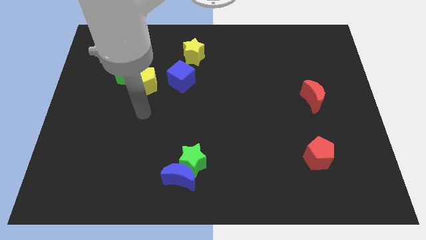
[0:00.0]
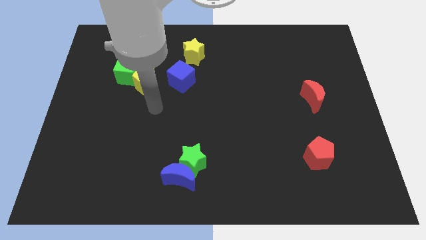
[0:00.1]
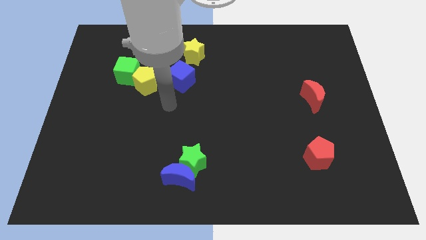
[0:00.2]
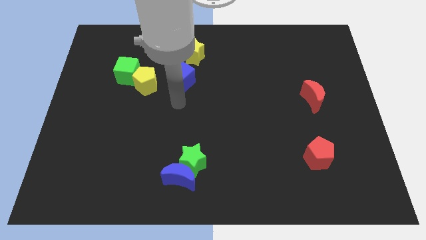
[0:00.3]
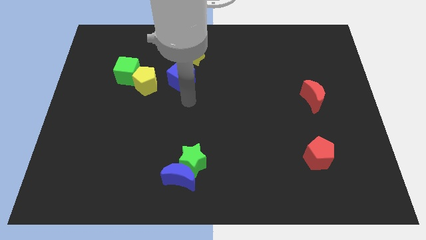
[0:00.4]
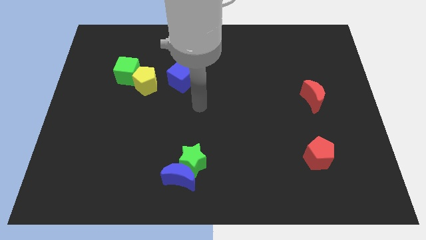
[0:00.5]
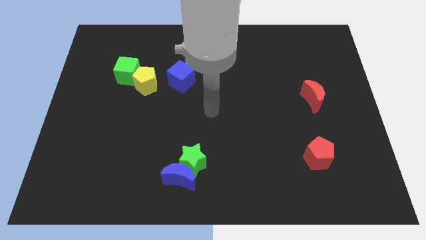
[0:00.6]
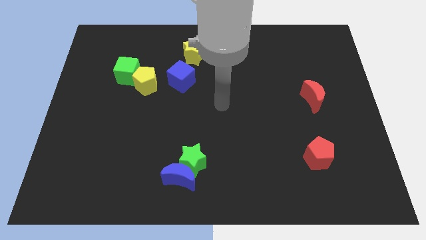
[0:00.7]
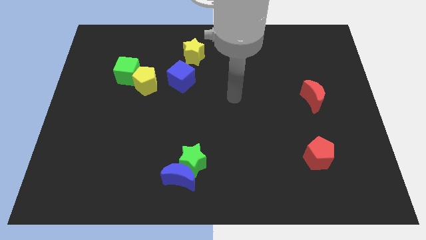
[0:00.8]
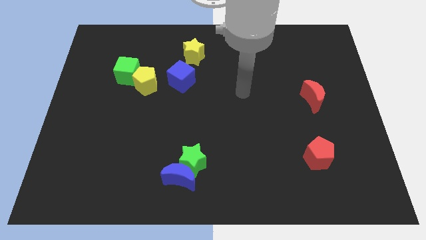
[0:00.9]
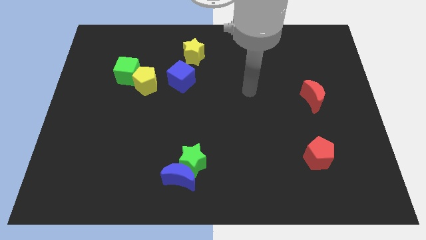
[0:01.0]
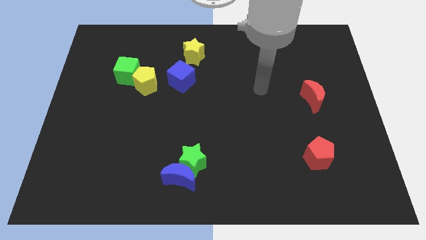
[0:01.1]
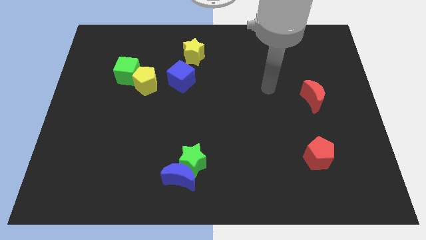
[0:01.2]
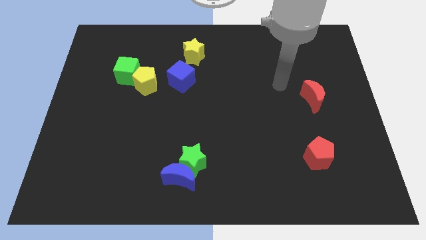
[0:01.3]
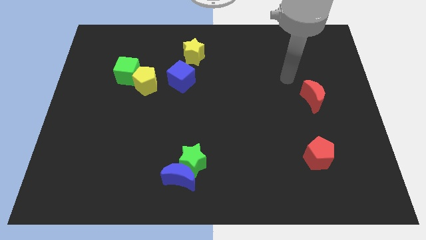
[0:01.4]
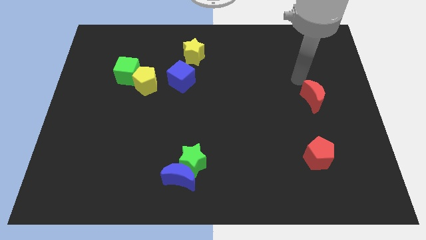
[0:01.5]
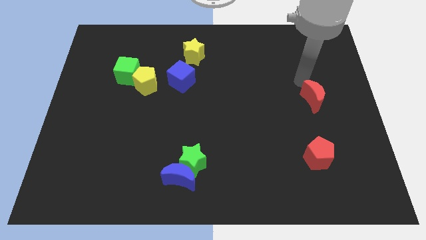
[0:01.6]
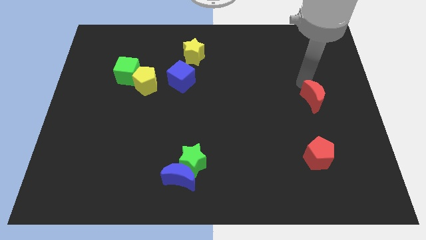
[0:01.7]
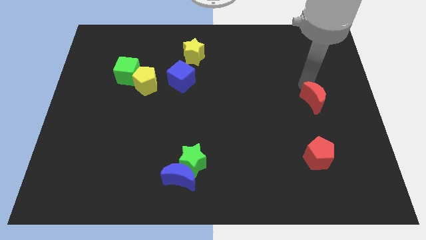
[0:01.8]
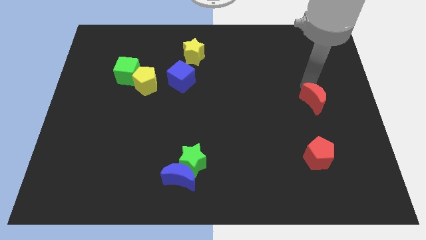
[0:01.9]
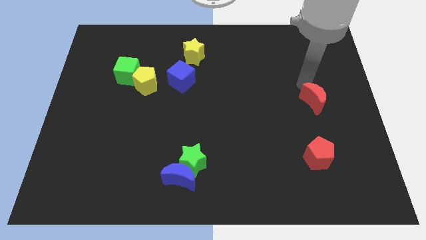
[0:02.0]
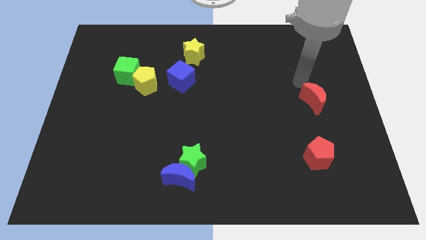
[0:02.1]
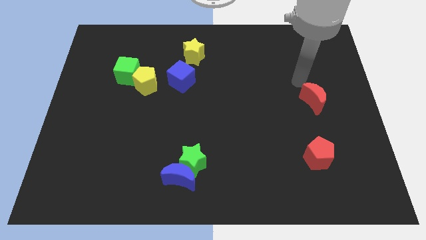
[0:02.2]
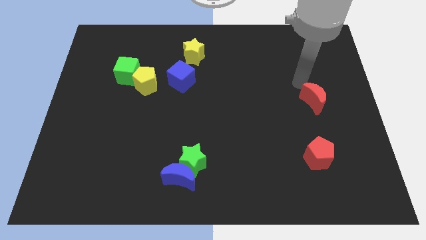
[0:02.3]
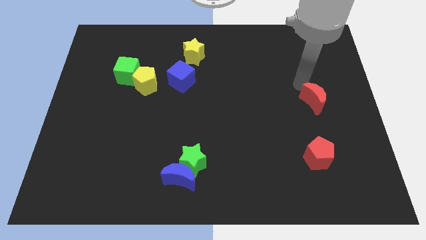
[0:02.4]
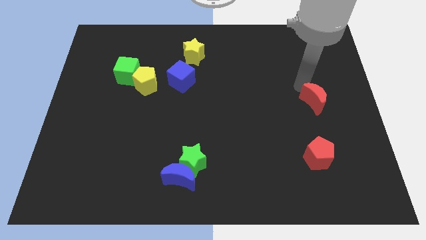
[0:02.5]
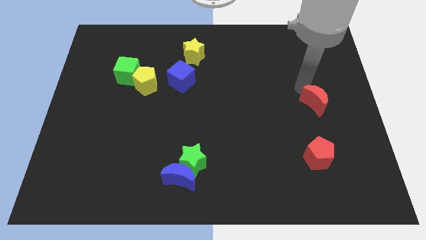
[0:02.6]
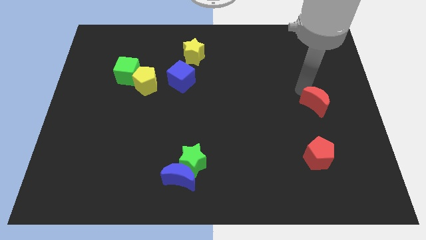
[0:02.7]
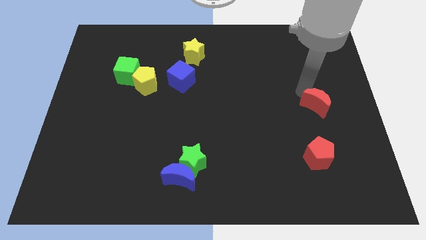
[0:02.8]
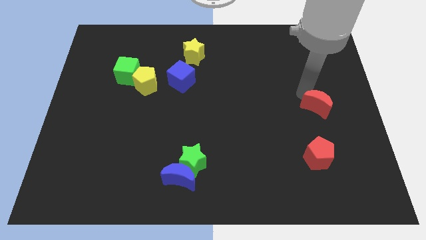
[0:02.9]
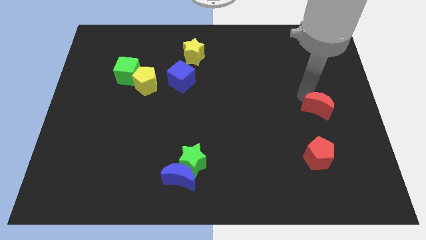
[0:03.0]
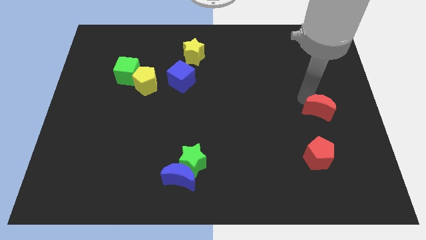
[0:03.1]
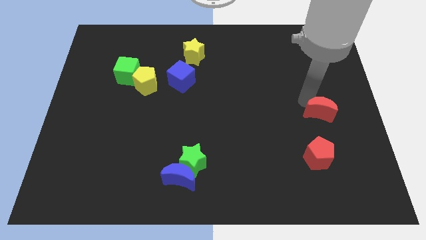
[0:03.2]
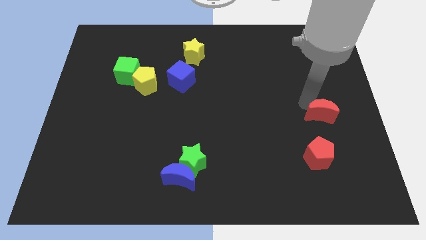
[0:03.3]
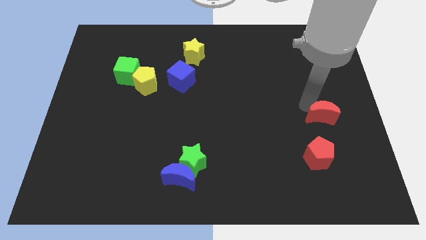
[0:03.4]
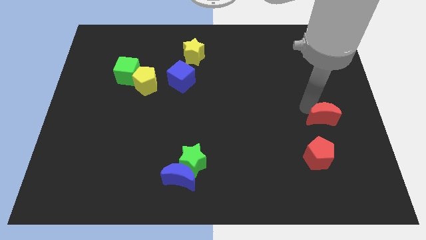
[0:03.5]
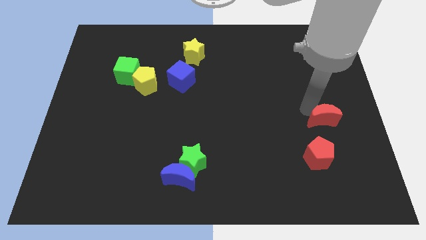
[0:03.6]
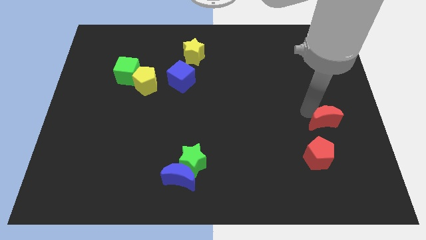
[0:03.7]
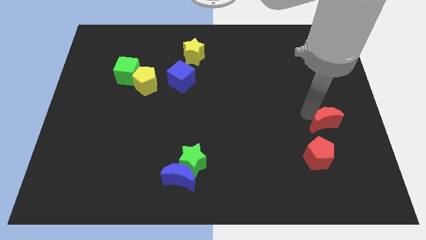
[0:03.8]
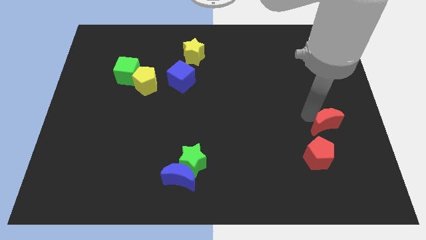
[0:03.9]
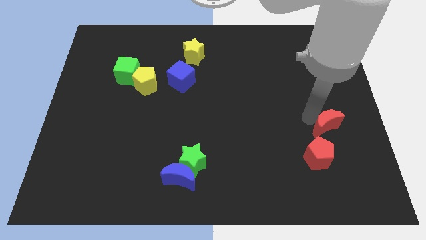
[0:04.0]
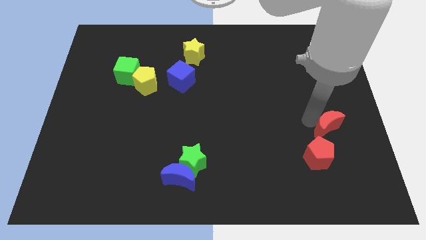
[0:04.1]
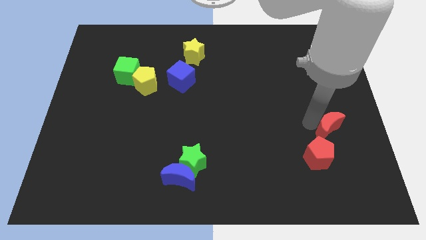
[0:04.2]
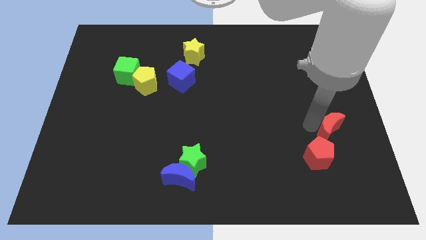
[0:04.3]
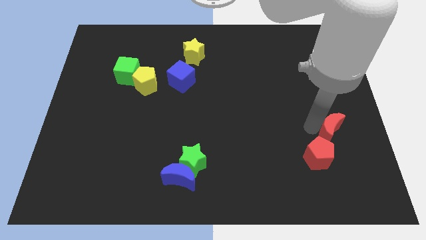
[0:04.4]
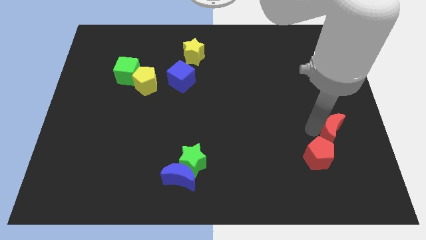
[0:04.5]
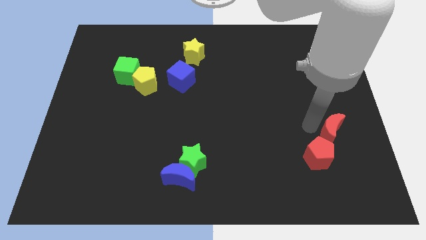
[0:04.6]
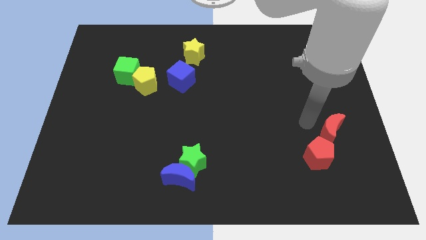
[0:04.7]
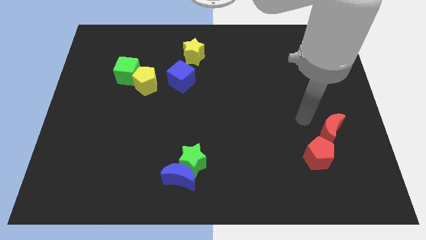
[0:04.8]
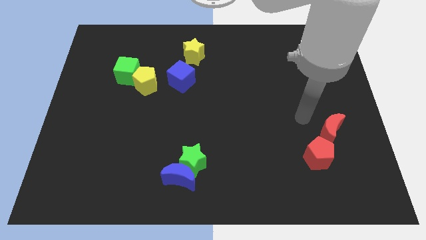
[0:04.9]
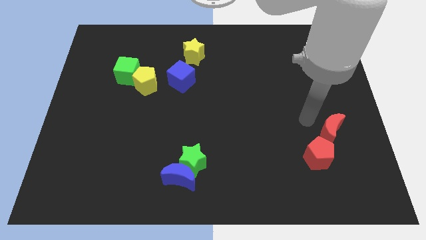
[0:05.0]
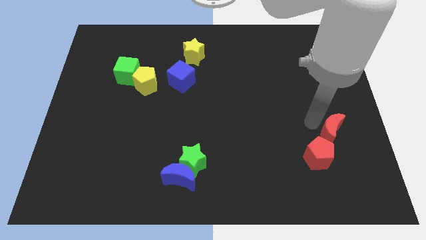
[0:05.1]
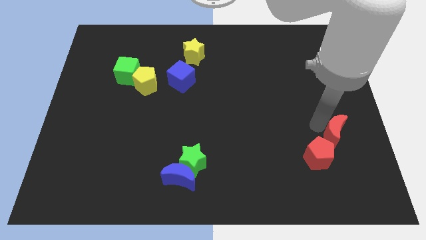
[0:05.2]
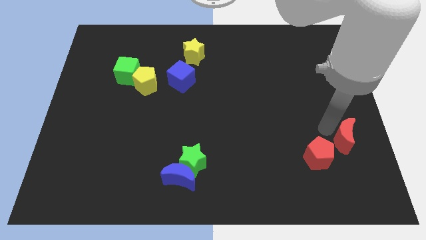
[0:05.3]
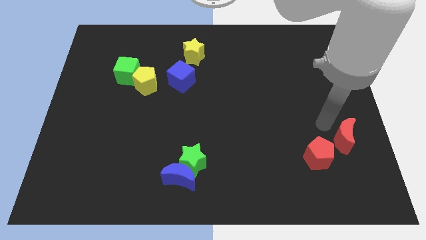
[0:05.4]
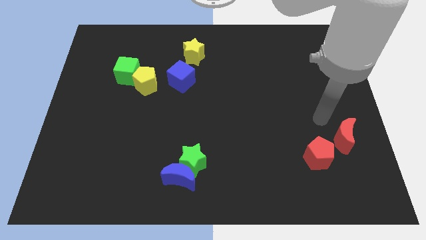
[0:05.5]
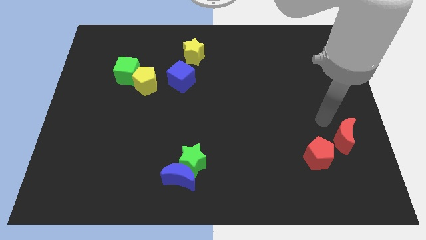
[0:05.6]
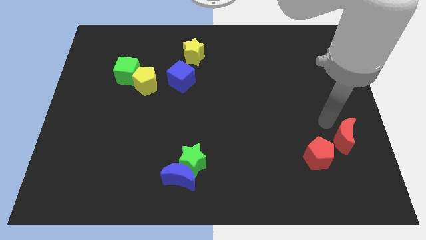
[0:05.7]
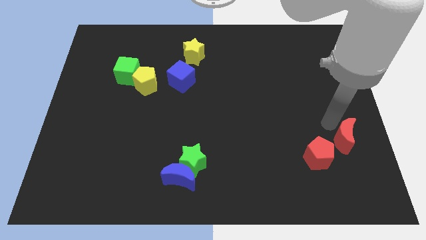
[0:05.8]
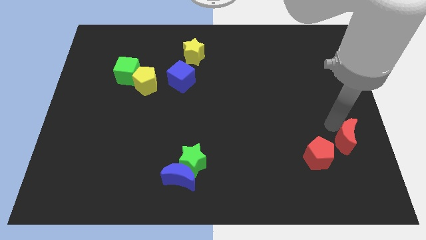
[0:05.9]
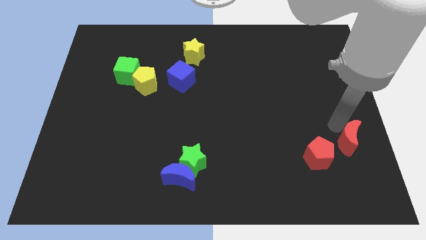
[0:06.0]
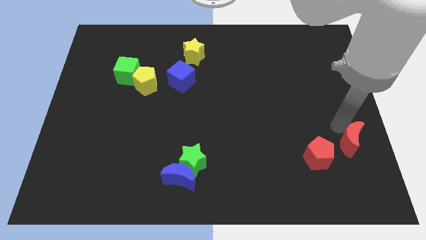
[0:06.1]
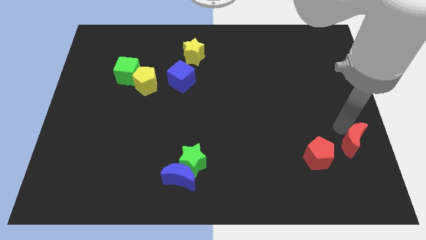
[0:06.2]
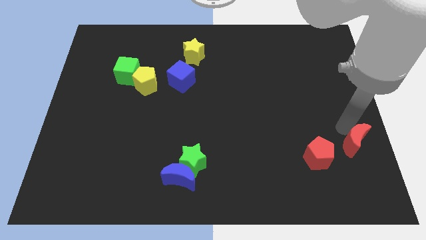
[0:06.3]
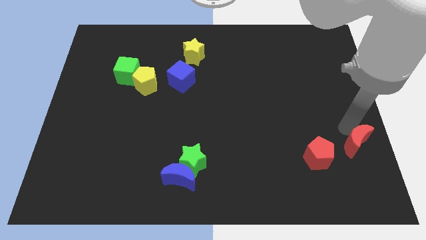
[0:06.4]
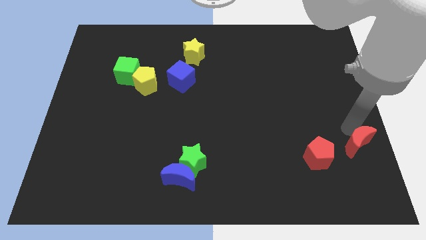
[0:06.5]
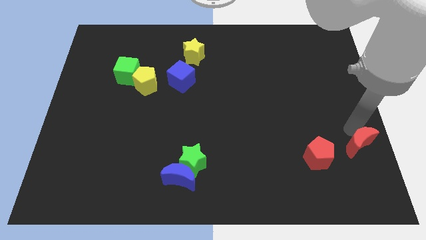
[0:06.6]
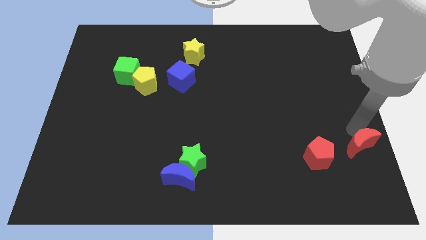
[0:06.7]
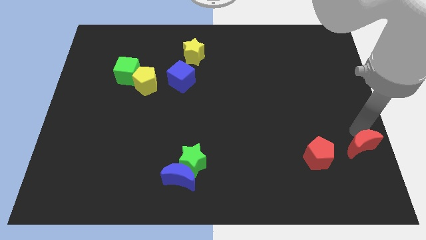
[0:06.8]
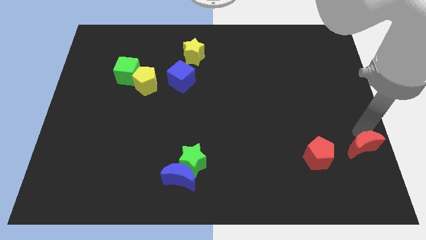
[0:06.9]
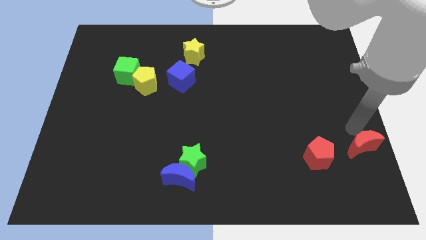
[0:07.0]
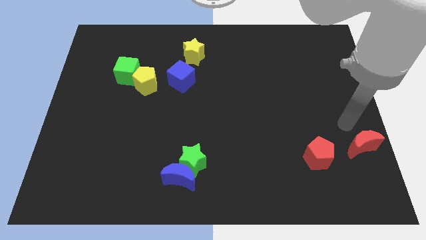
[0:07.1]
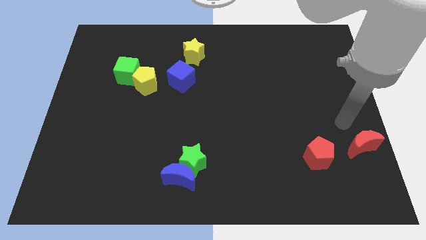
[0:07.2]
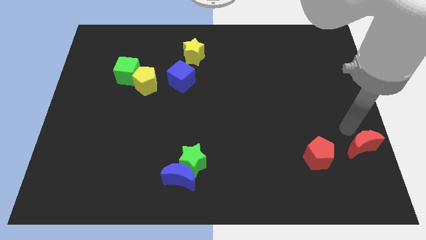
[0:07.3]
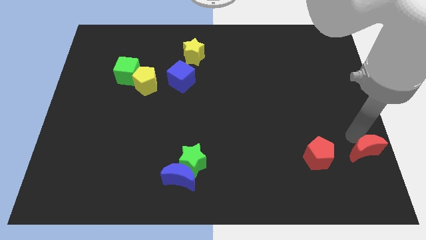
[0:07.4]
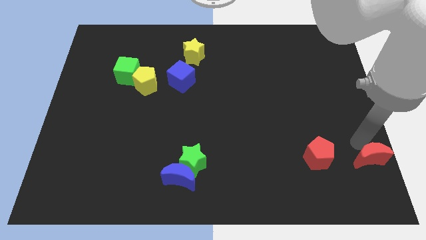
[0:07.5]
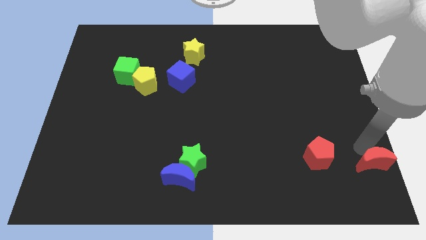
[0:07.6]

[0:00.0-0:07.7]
move the red moon to the bottom right corner
